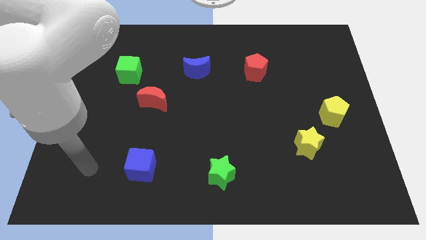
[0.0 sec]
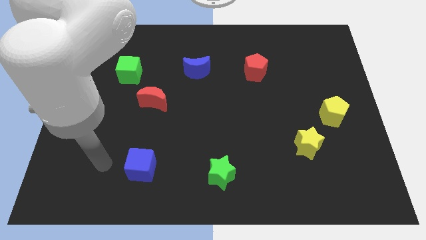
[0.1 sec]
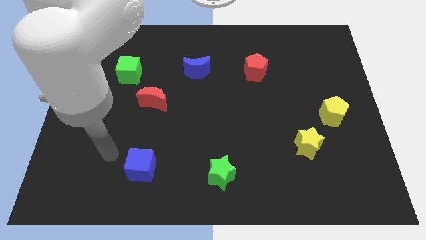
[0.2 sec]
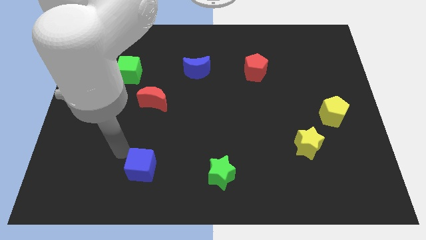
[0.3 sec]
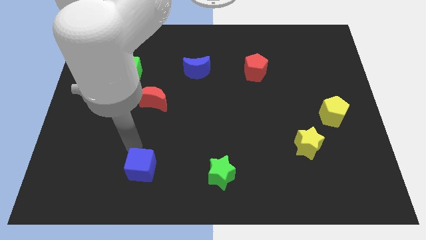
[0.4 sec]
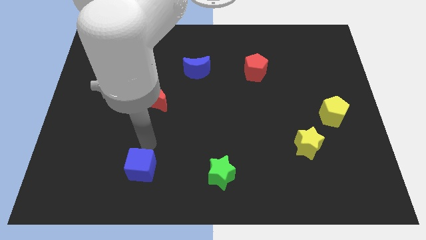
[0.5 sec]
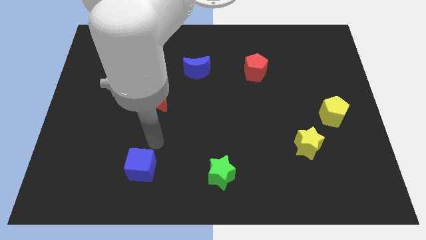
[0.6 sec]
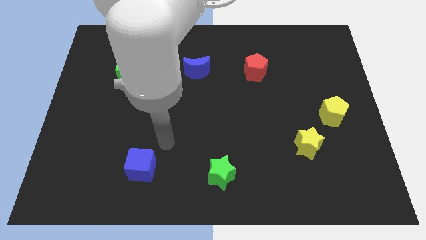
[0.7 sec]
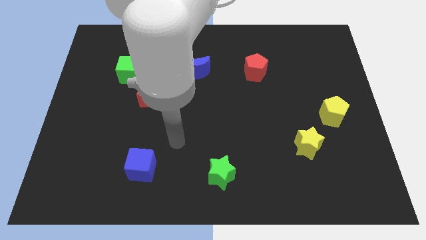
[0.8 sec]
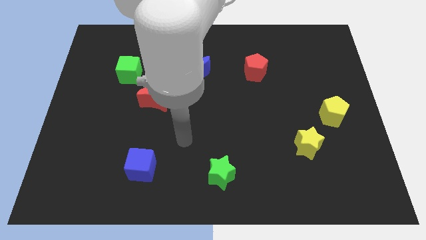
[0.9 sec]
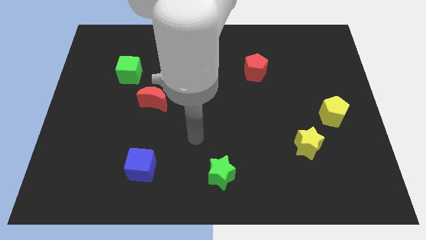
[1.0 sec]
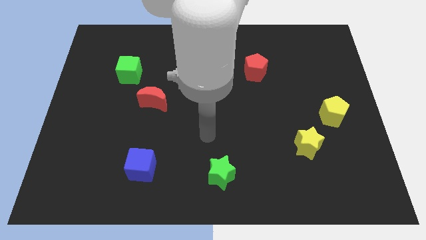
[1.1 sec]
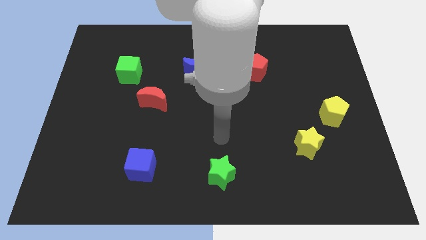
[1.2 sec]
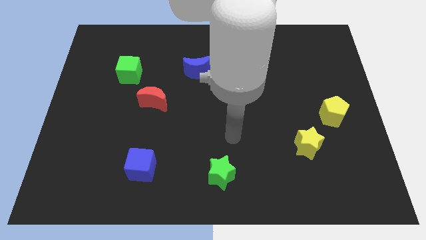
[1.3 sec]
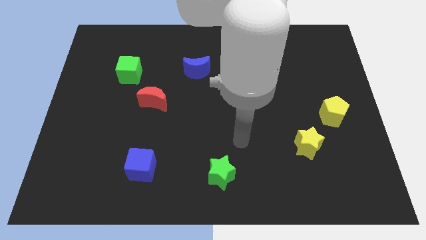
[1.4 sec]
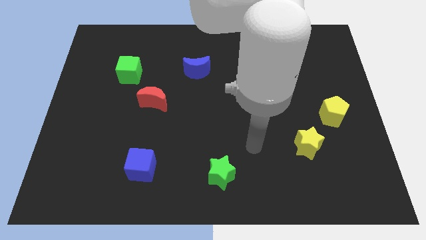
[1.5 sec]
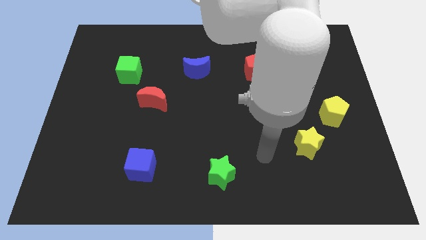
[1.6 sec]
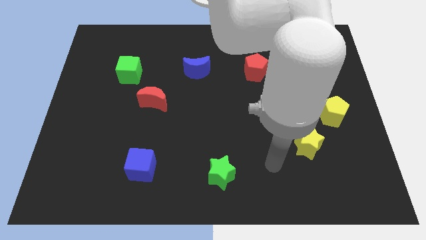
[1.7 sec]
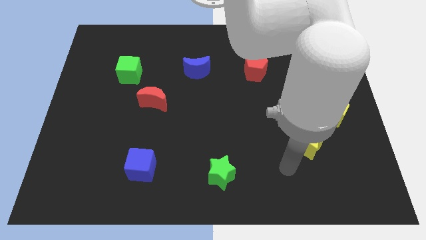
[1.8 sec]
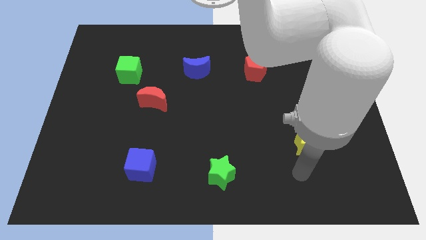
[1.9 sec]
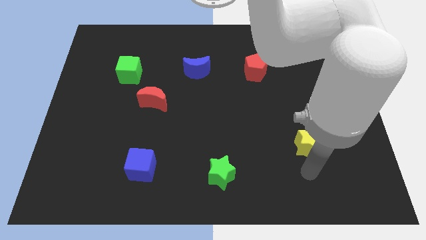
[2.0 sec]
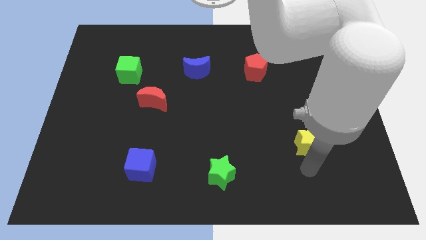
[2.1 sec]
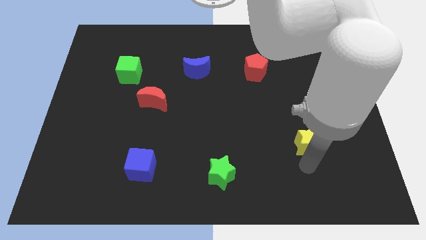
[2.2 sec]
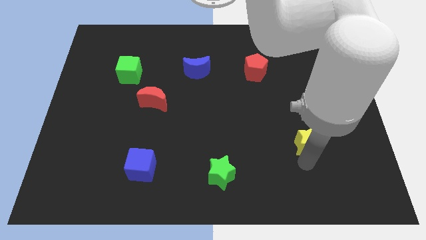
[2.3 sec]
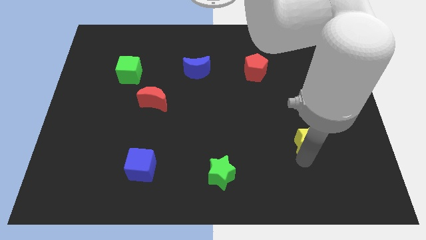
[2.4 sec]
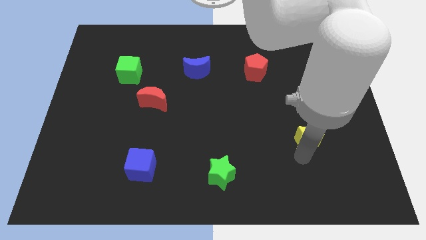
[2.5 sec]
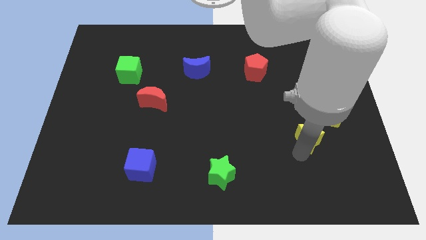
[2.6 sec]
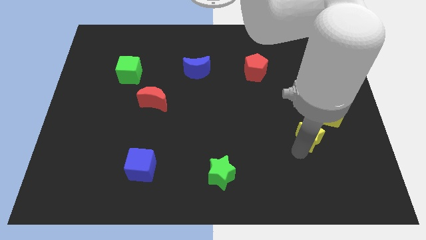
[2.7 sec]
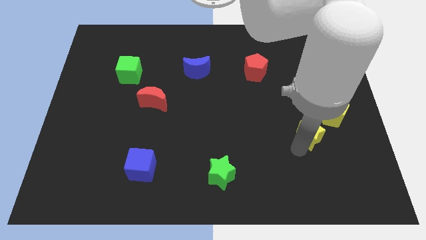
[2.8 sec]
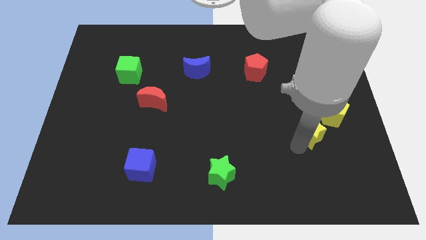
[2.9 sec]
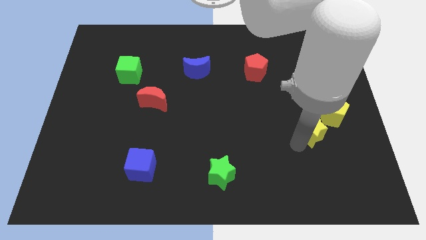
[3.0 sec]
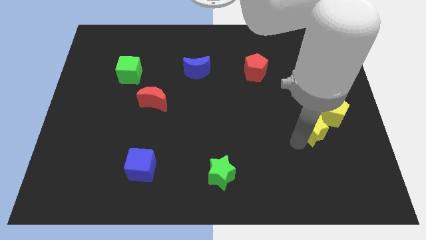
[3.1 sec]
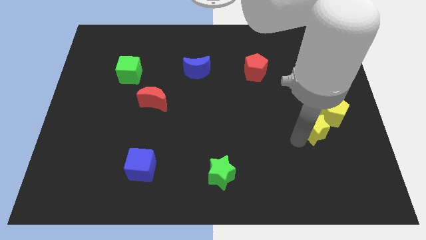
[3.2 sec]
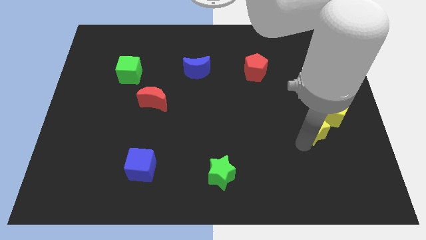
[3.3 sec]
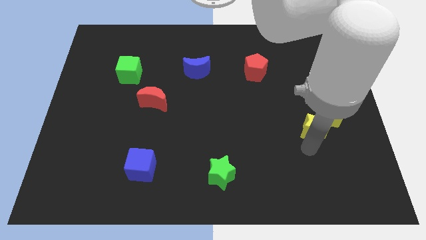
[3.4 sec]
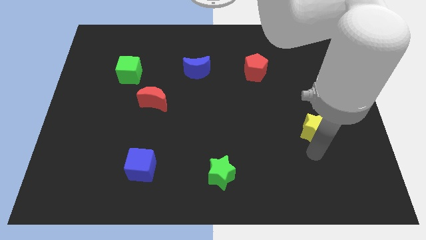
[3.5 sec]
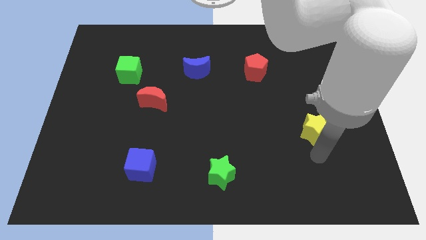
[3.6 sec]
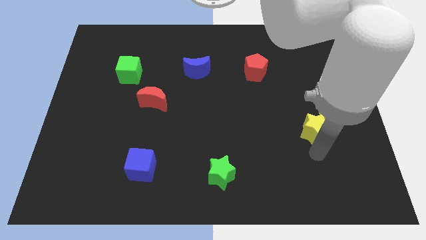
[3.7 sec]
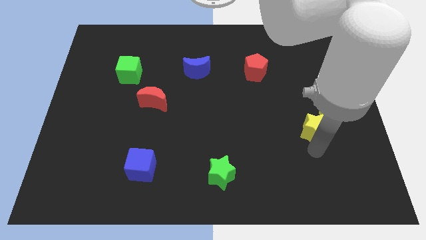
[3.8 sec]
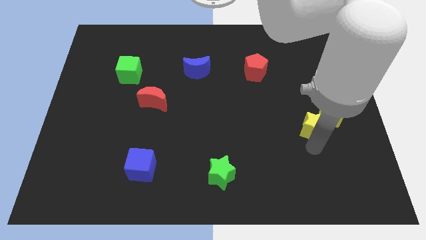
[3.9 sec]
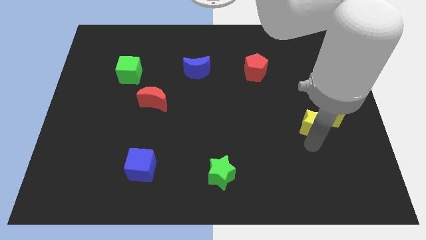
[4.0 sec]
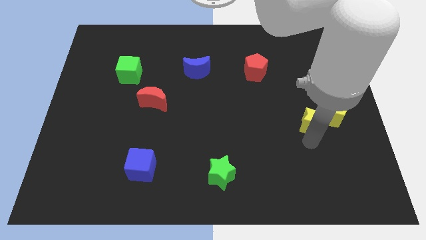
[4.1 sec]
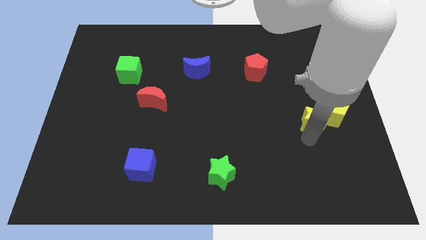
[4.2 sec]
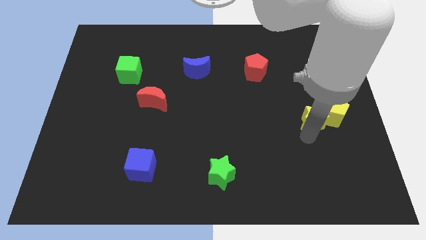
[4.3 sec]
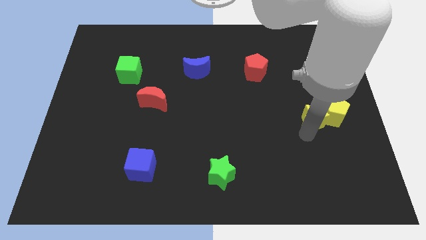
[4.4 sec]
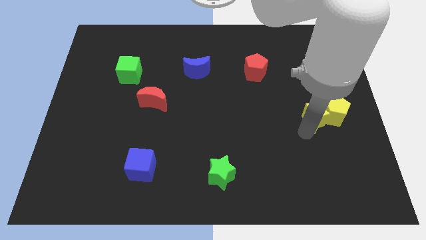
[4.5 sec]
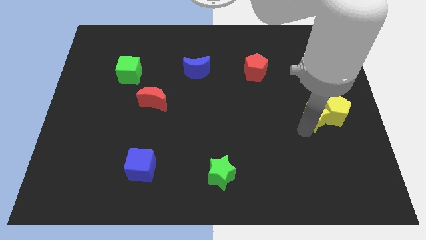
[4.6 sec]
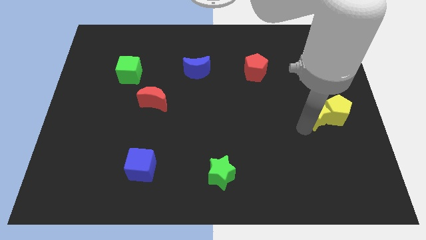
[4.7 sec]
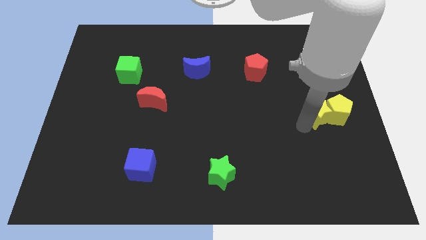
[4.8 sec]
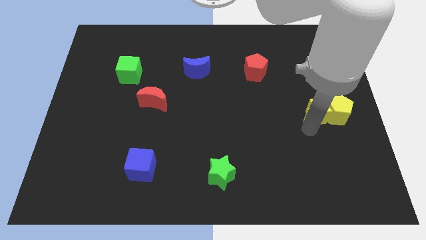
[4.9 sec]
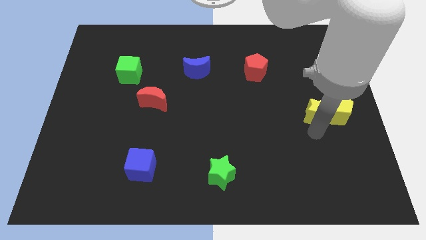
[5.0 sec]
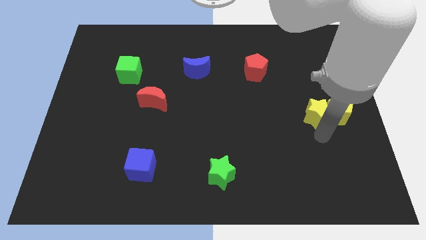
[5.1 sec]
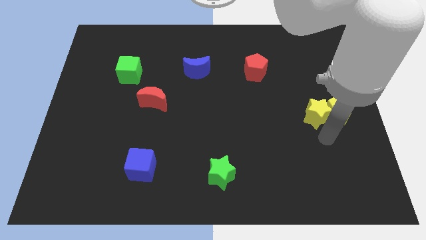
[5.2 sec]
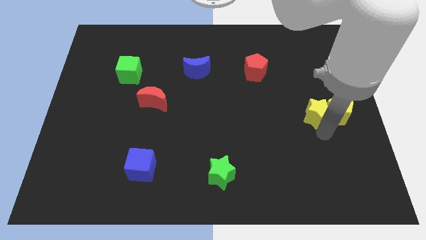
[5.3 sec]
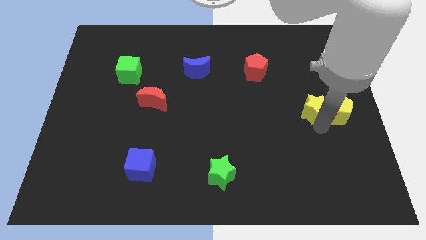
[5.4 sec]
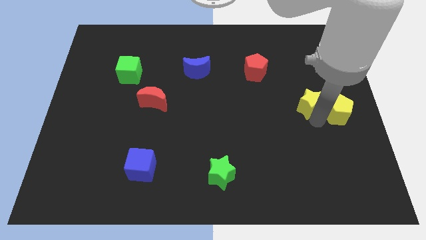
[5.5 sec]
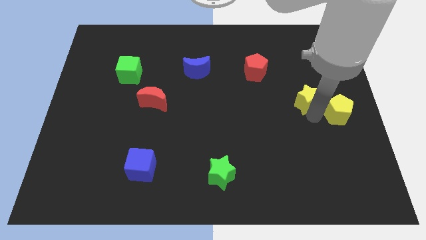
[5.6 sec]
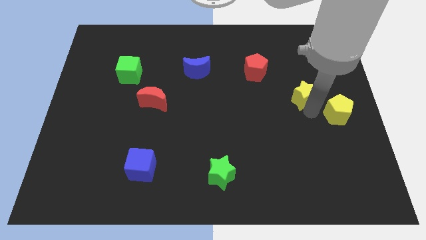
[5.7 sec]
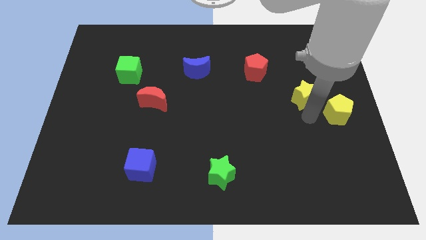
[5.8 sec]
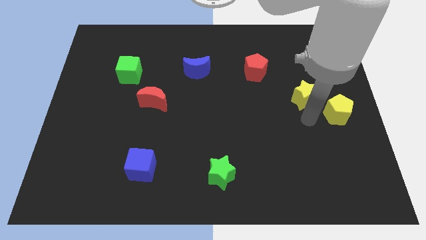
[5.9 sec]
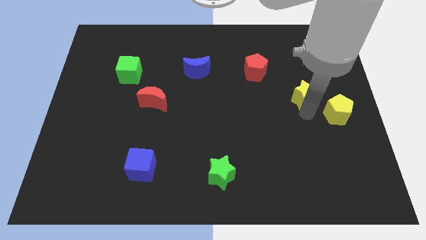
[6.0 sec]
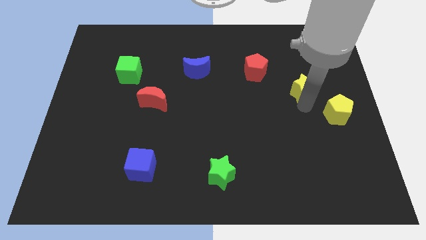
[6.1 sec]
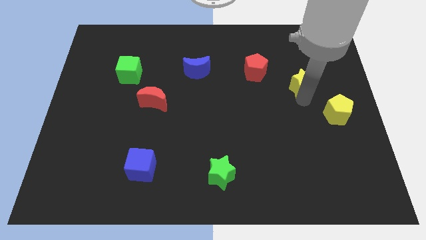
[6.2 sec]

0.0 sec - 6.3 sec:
push the yellow star to the right of the red pentagon
